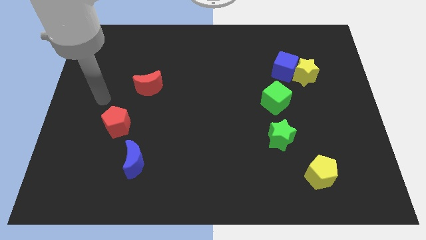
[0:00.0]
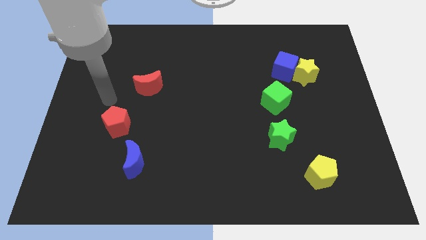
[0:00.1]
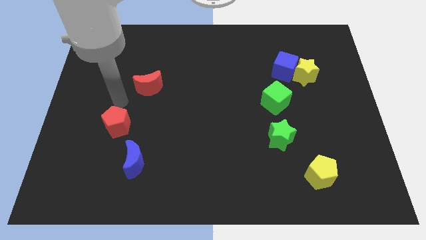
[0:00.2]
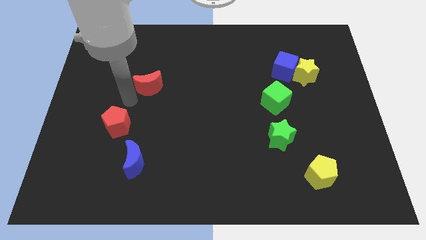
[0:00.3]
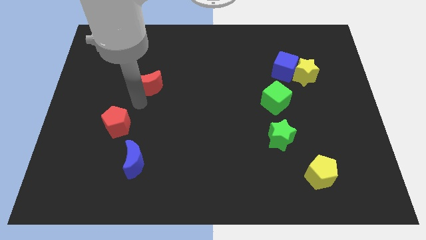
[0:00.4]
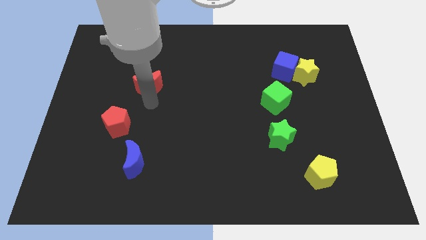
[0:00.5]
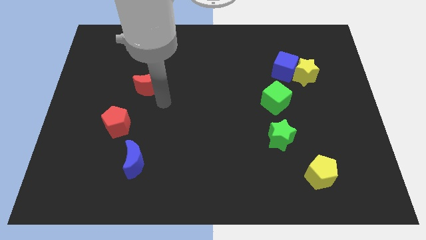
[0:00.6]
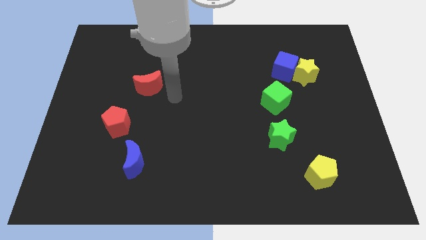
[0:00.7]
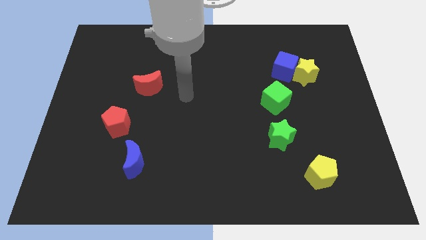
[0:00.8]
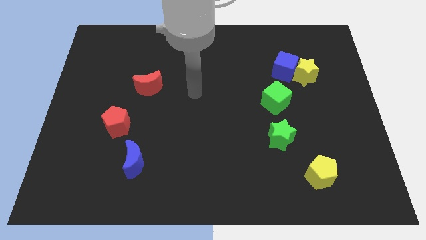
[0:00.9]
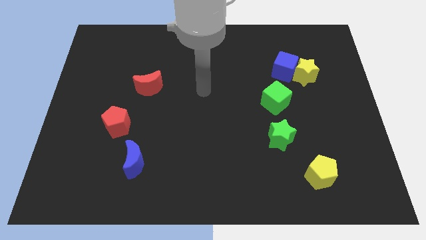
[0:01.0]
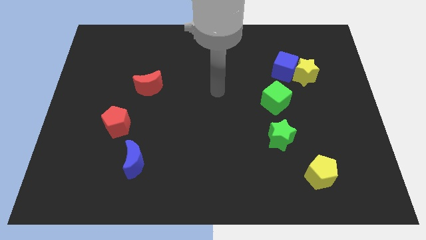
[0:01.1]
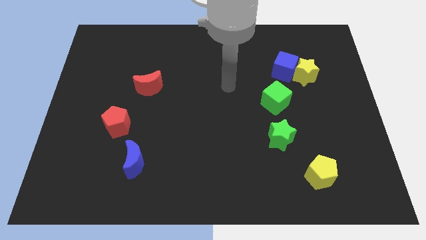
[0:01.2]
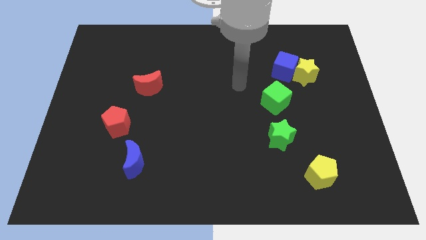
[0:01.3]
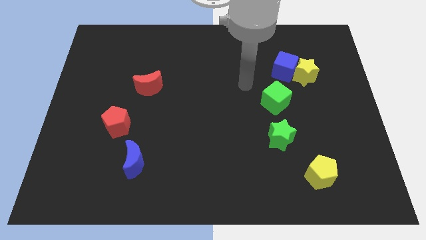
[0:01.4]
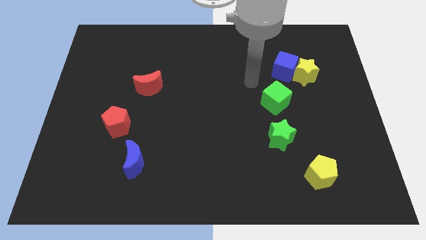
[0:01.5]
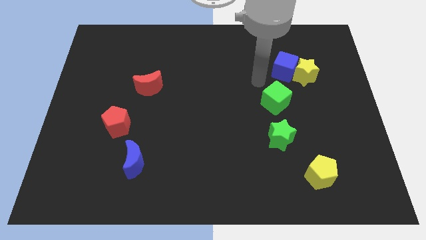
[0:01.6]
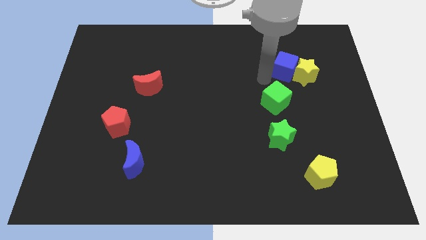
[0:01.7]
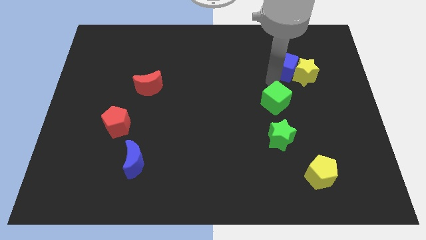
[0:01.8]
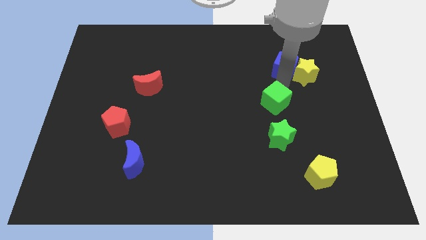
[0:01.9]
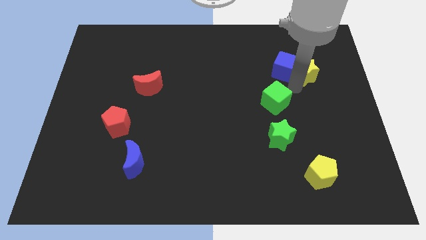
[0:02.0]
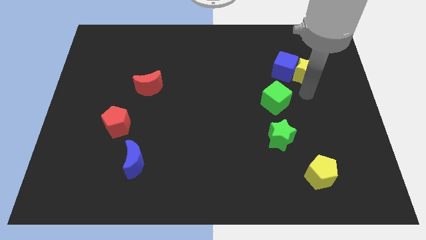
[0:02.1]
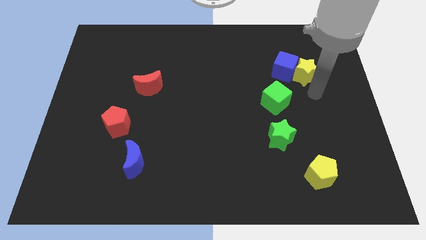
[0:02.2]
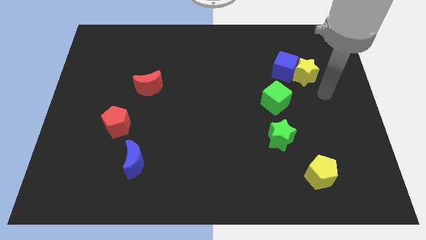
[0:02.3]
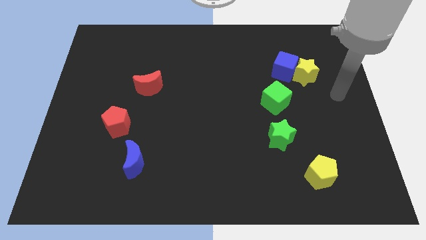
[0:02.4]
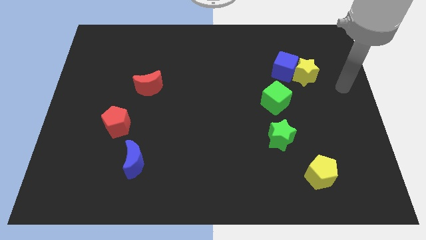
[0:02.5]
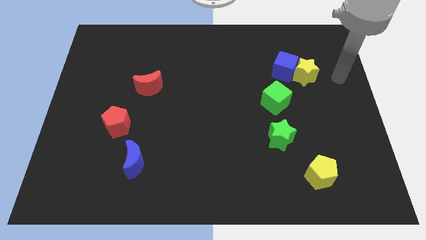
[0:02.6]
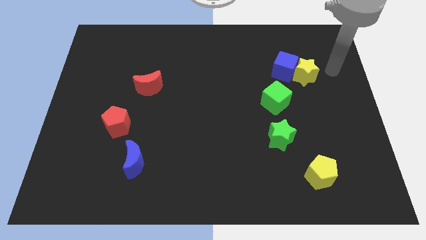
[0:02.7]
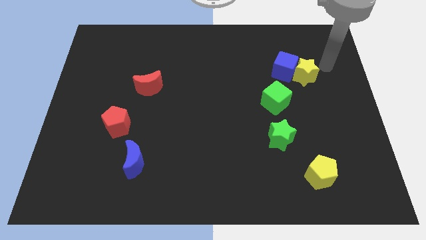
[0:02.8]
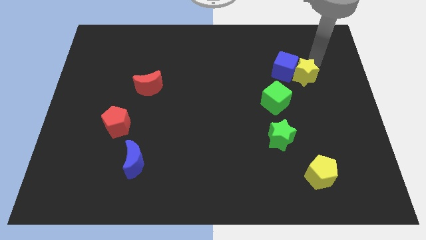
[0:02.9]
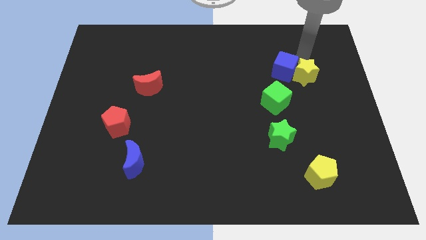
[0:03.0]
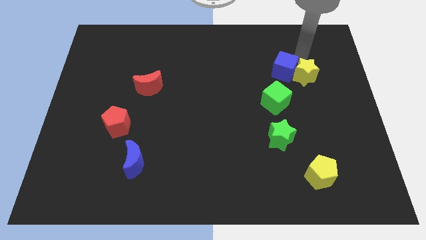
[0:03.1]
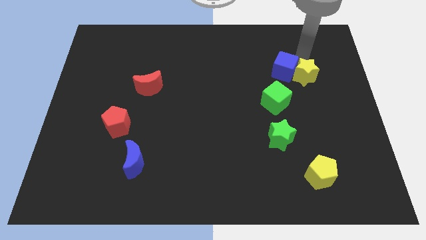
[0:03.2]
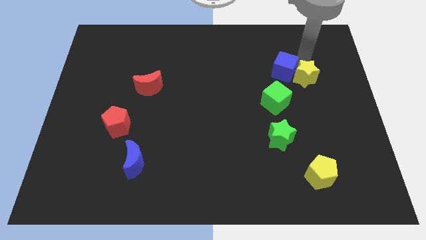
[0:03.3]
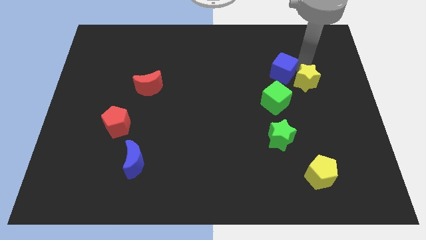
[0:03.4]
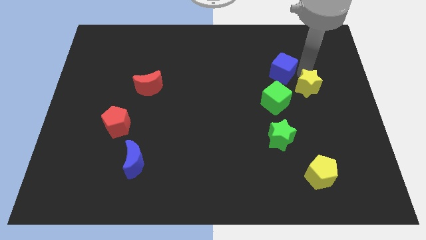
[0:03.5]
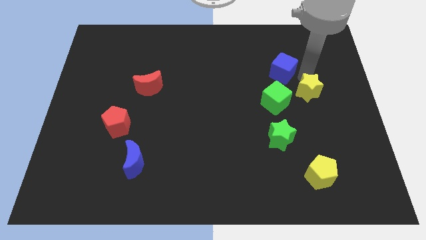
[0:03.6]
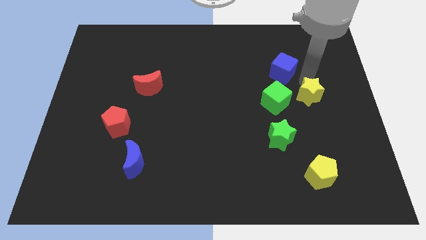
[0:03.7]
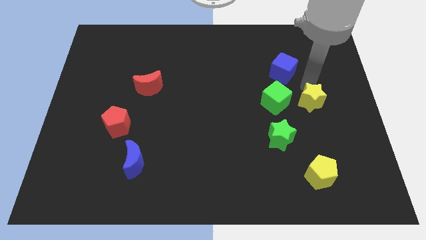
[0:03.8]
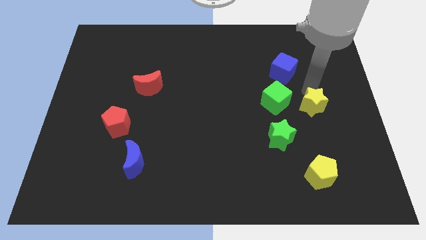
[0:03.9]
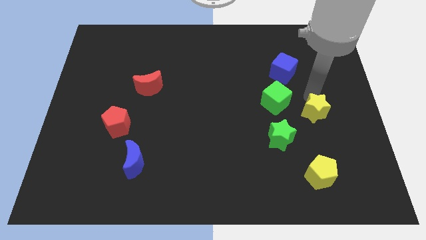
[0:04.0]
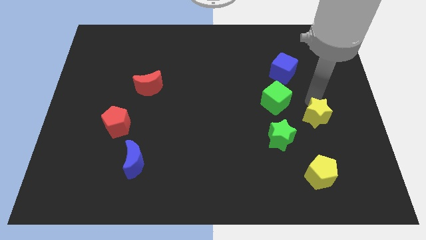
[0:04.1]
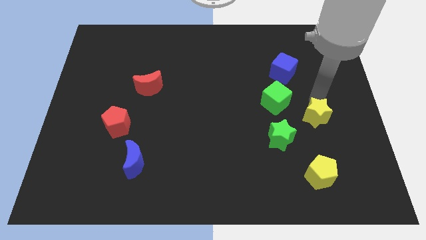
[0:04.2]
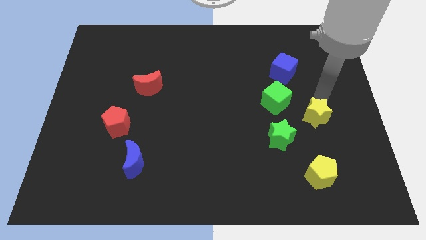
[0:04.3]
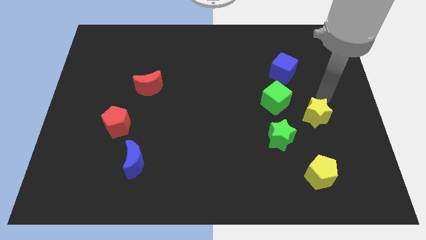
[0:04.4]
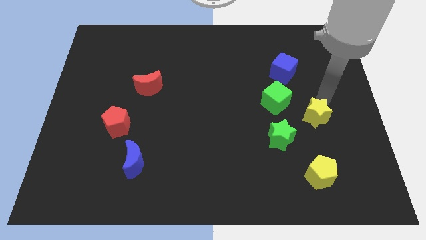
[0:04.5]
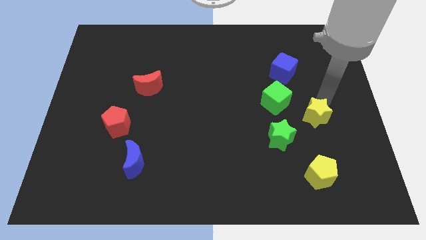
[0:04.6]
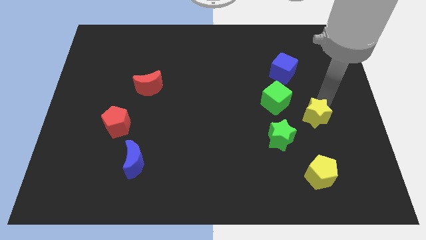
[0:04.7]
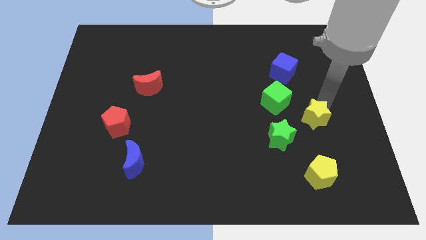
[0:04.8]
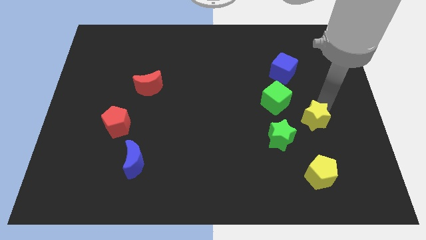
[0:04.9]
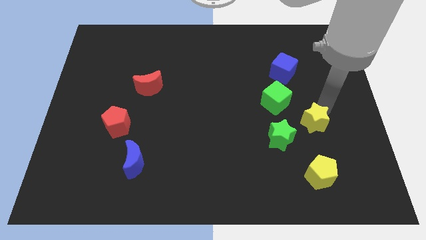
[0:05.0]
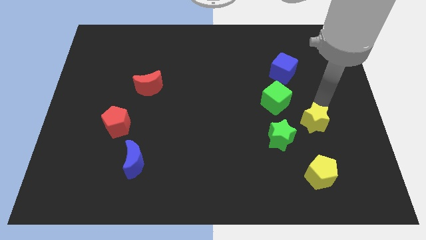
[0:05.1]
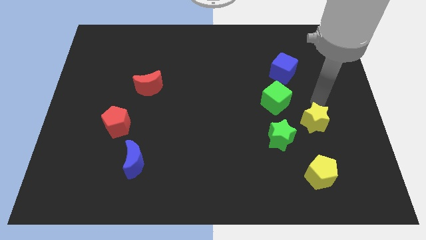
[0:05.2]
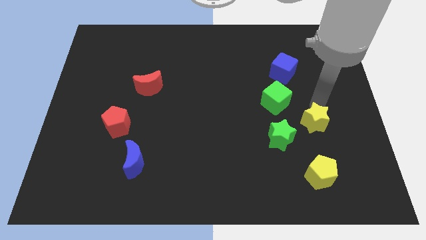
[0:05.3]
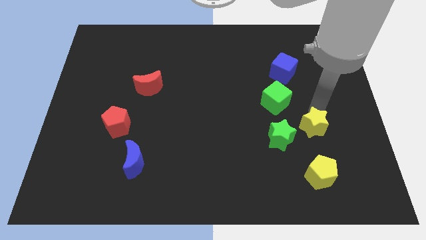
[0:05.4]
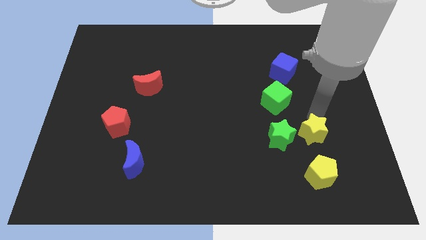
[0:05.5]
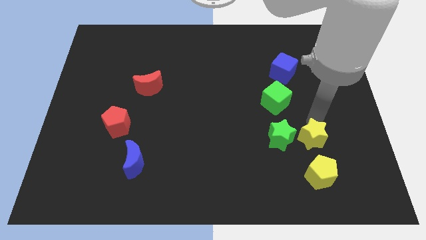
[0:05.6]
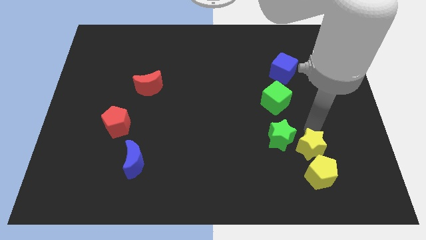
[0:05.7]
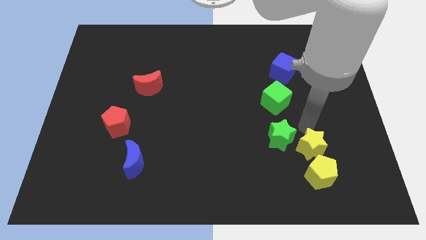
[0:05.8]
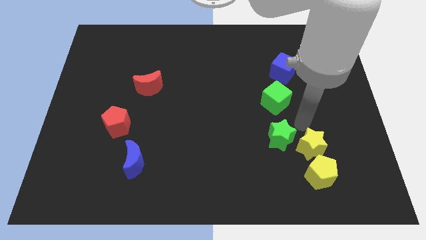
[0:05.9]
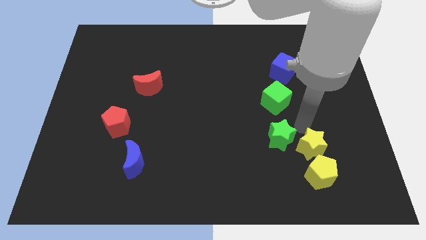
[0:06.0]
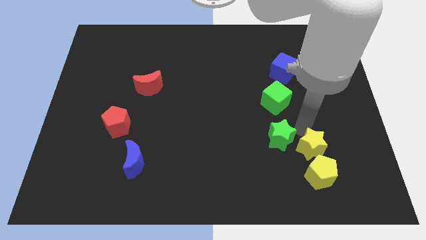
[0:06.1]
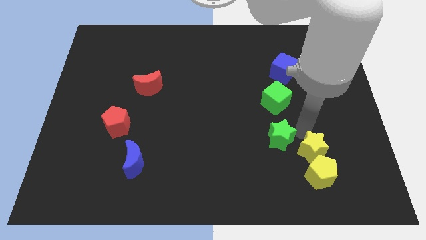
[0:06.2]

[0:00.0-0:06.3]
put the yellow star to the yellow pentagon
